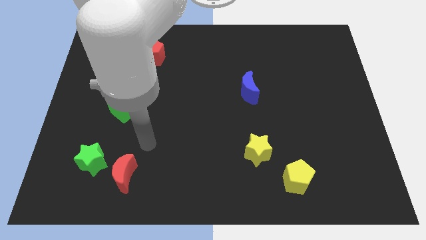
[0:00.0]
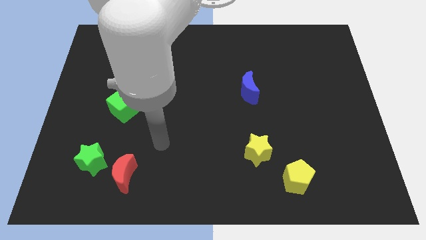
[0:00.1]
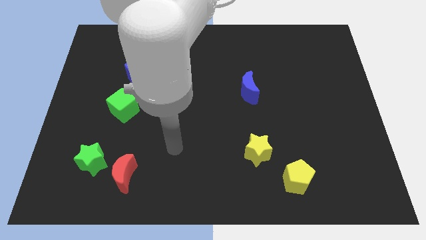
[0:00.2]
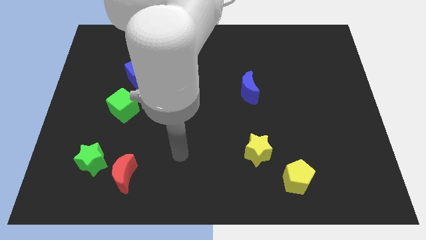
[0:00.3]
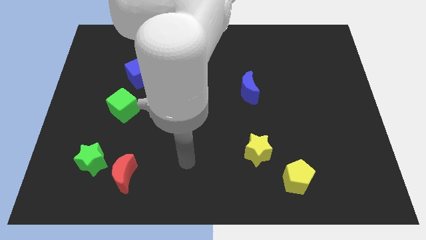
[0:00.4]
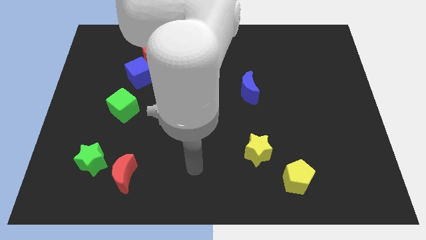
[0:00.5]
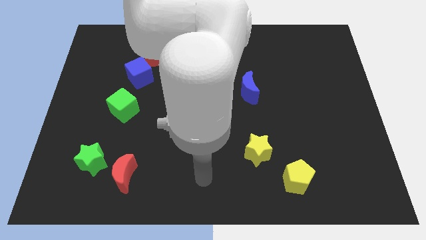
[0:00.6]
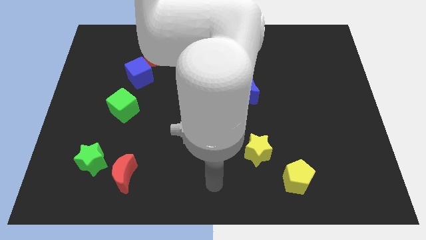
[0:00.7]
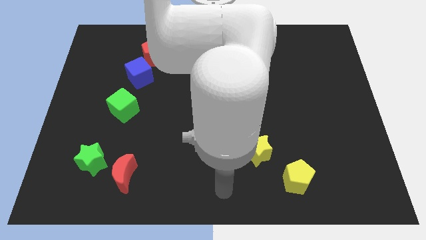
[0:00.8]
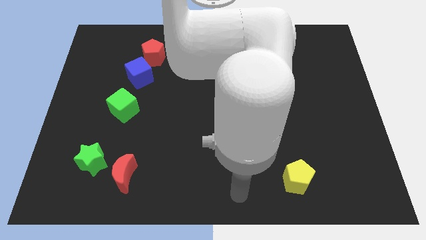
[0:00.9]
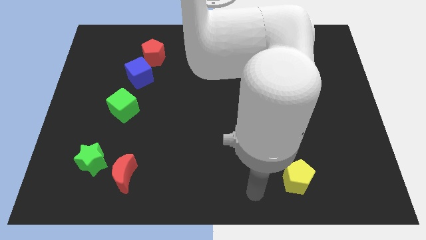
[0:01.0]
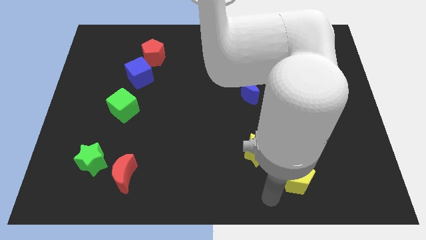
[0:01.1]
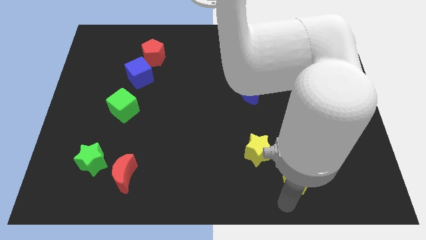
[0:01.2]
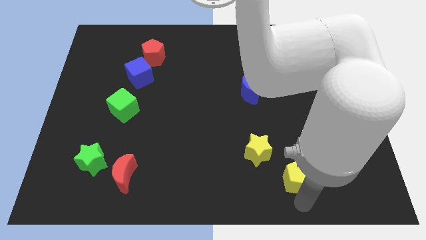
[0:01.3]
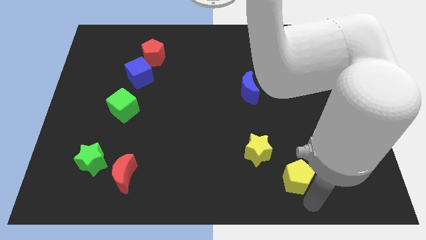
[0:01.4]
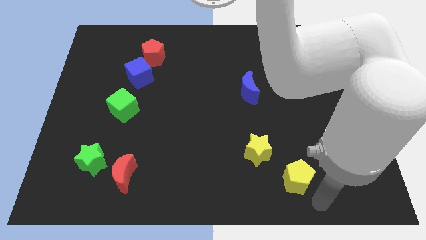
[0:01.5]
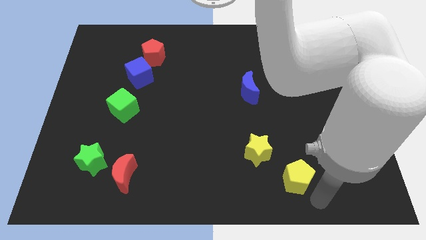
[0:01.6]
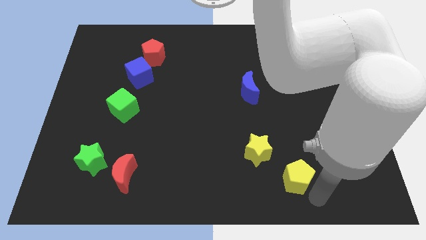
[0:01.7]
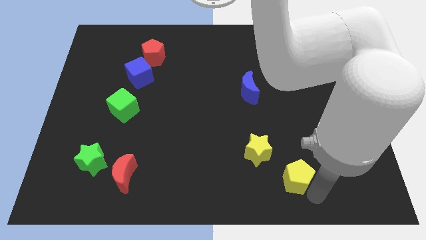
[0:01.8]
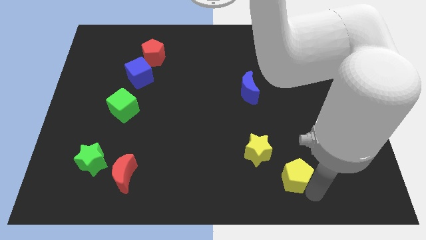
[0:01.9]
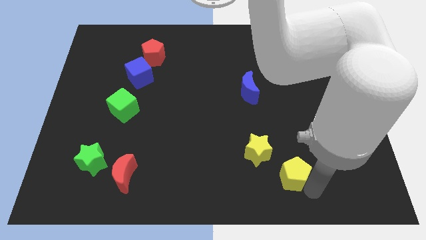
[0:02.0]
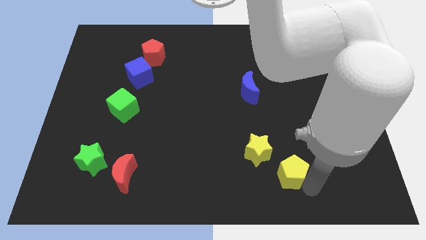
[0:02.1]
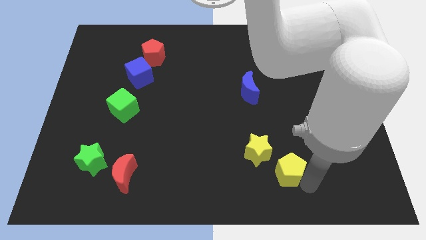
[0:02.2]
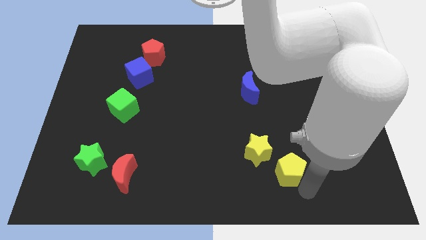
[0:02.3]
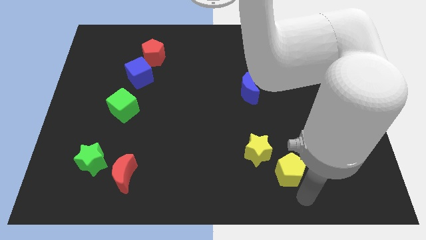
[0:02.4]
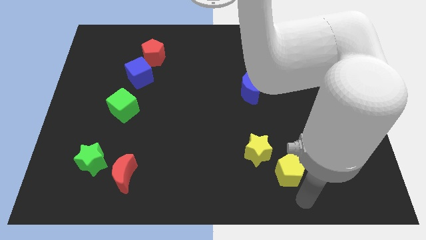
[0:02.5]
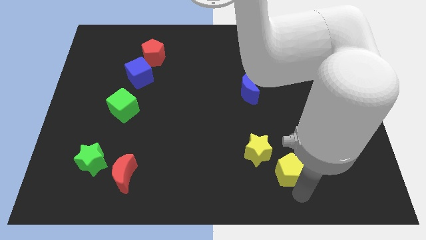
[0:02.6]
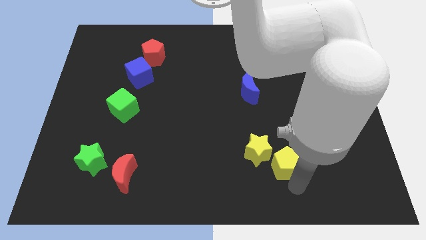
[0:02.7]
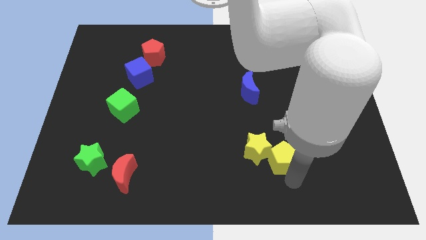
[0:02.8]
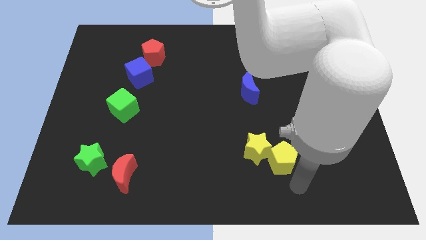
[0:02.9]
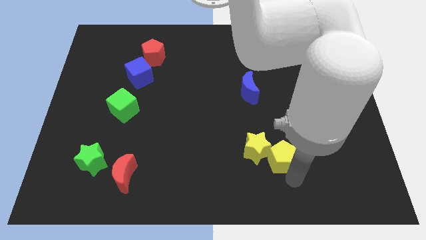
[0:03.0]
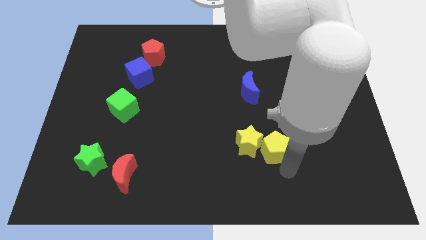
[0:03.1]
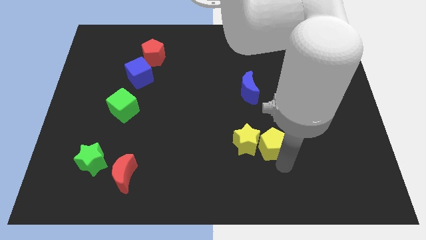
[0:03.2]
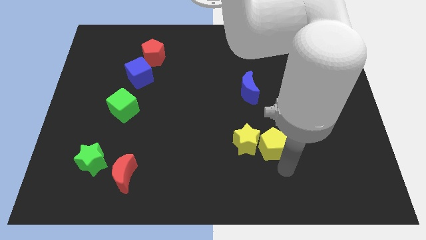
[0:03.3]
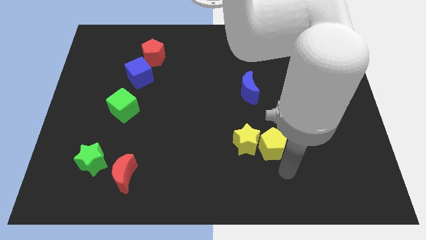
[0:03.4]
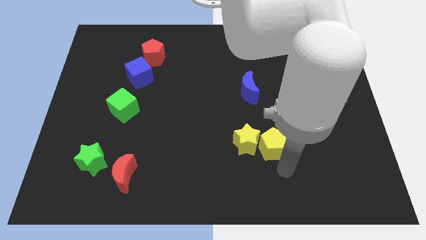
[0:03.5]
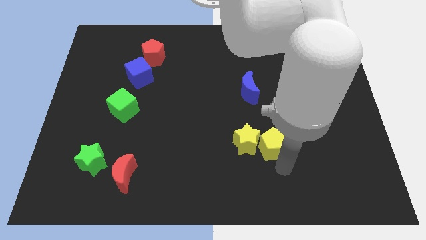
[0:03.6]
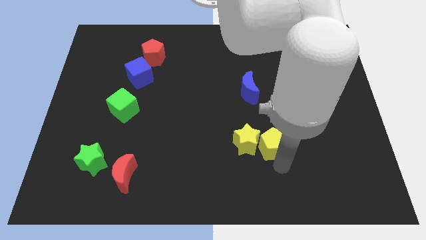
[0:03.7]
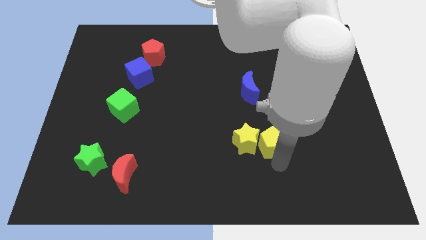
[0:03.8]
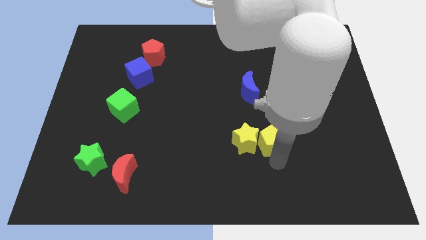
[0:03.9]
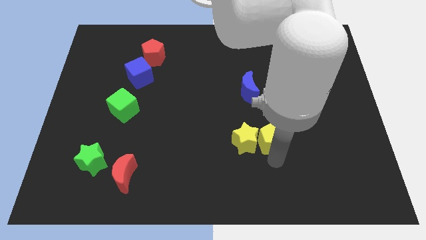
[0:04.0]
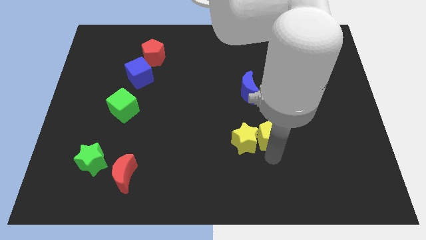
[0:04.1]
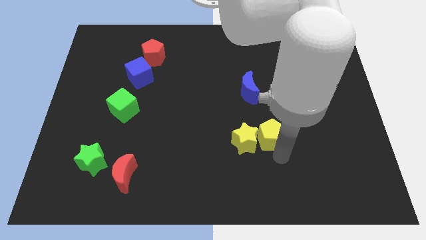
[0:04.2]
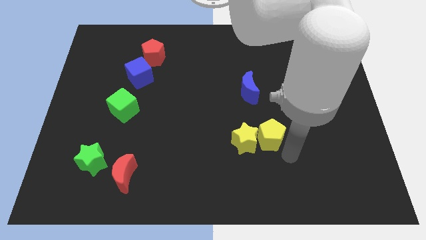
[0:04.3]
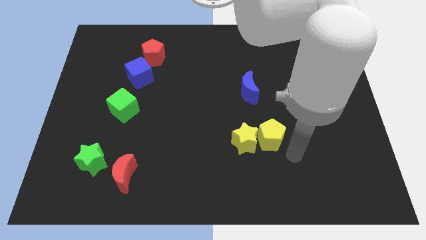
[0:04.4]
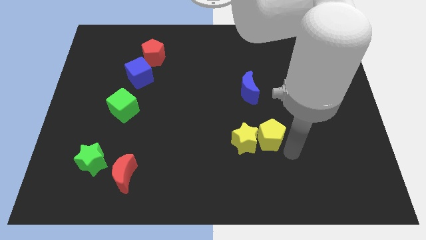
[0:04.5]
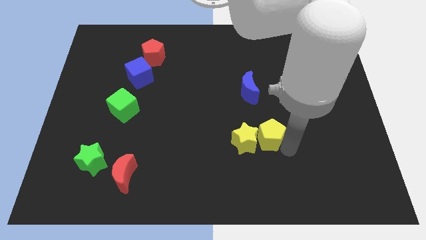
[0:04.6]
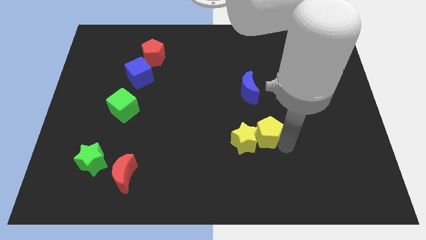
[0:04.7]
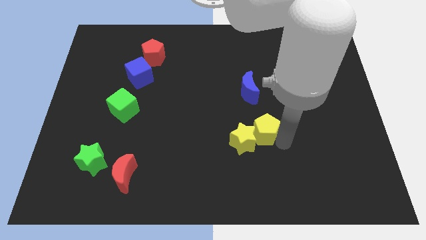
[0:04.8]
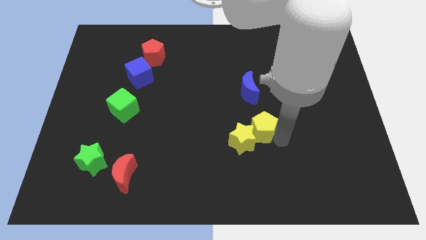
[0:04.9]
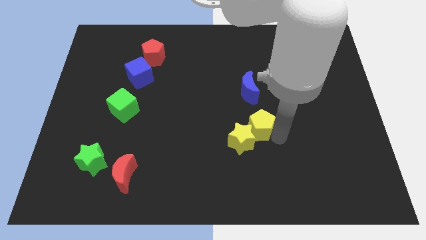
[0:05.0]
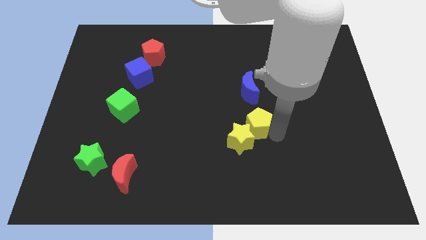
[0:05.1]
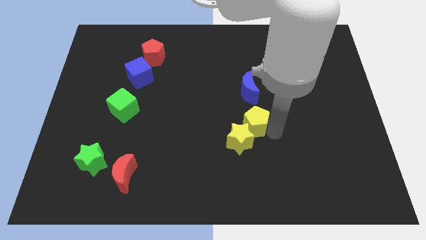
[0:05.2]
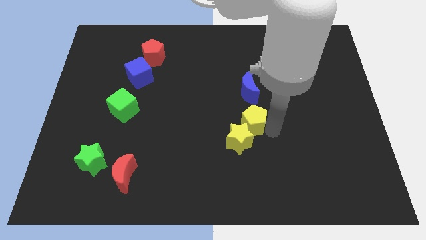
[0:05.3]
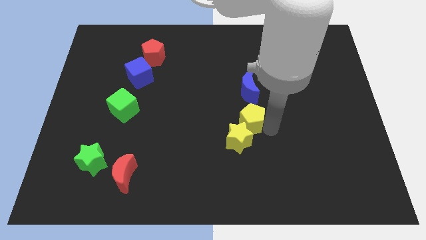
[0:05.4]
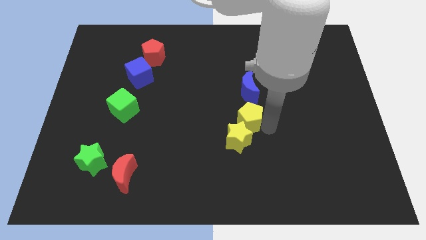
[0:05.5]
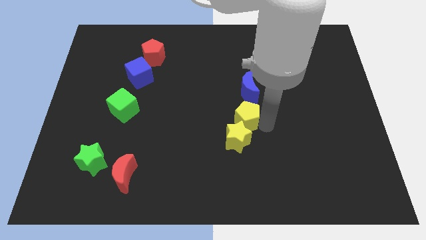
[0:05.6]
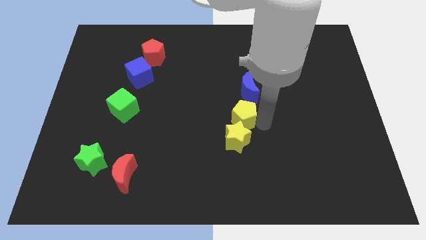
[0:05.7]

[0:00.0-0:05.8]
slide the yellow pentagon diagonally down and to the left of the blue moon

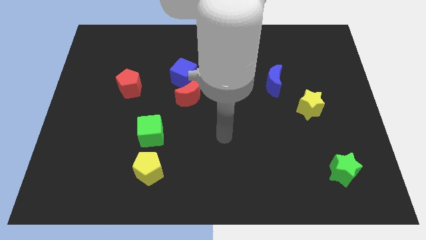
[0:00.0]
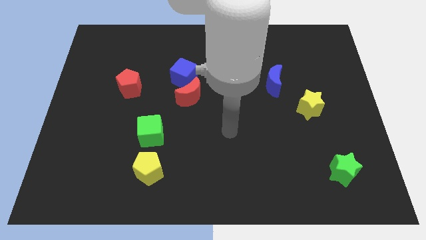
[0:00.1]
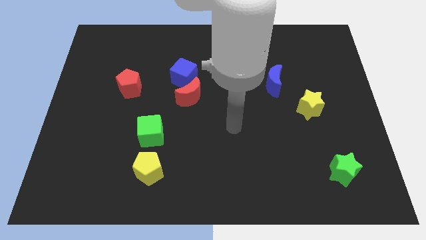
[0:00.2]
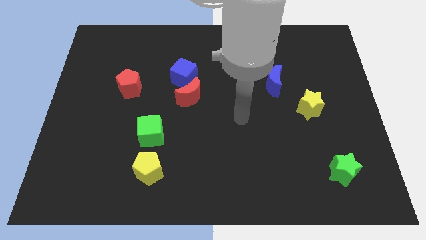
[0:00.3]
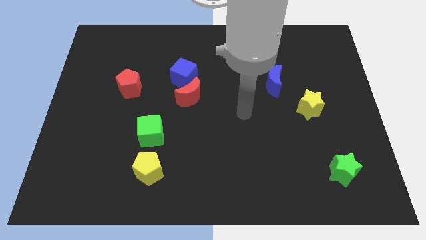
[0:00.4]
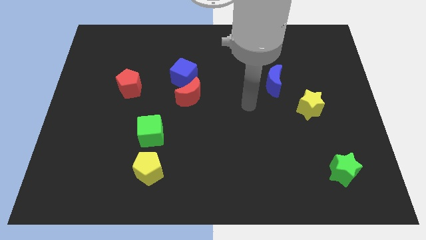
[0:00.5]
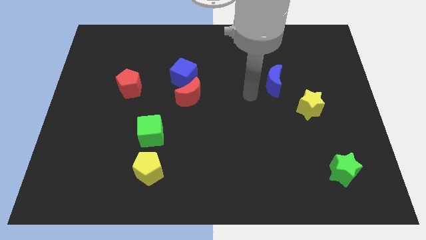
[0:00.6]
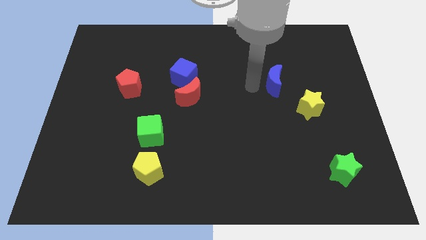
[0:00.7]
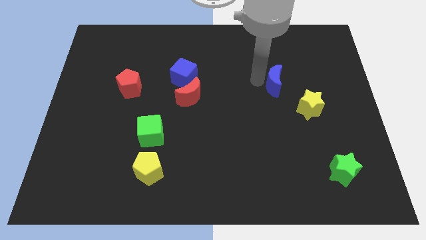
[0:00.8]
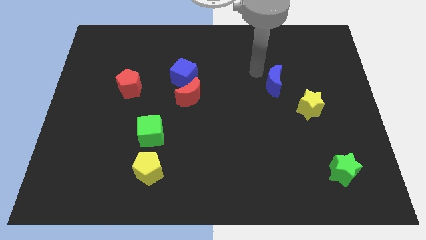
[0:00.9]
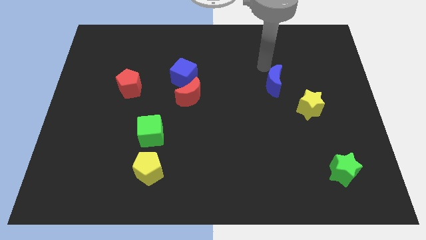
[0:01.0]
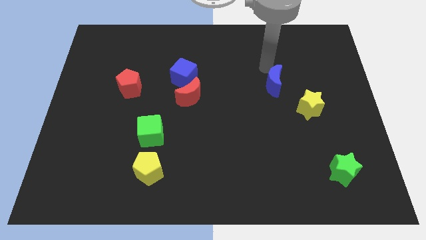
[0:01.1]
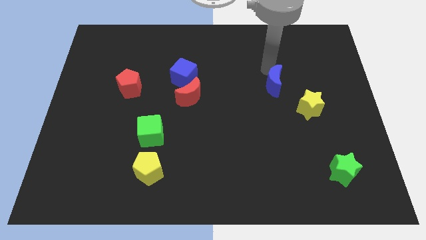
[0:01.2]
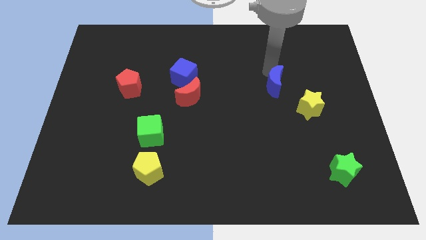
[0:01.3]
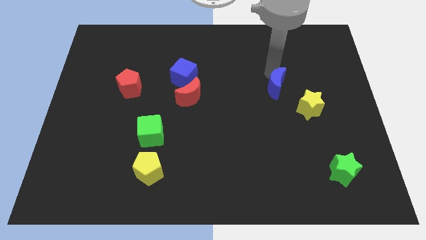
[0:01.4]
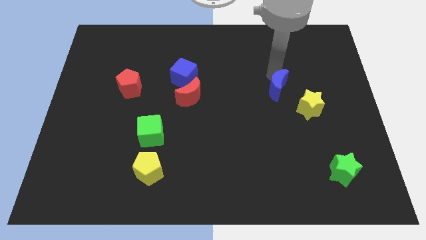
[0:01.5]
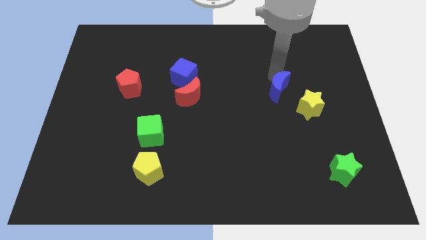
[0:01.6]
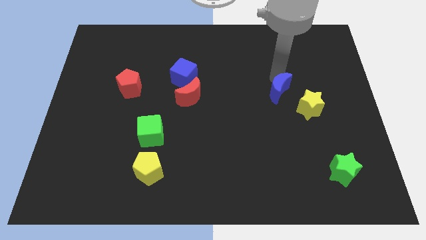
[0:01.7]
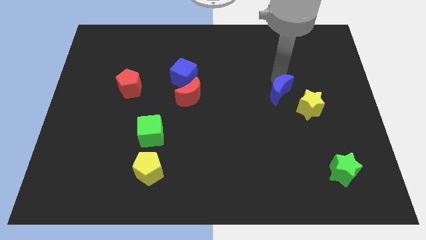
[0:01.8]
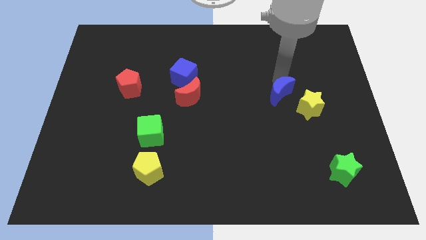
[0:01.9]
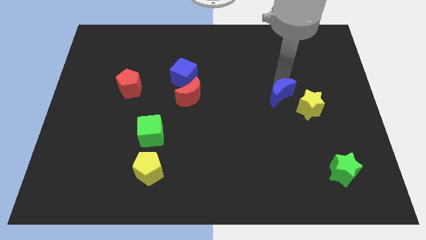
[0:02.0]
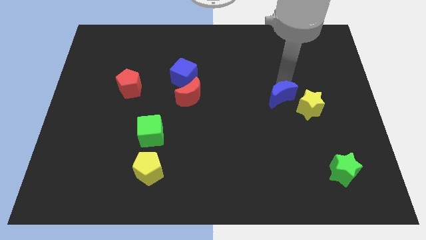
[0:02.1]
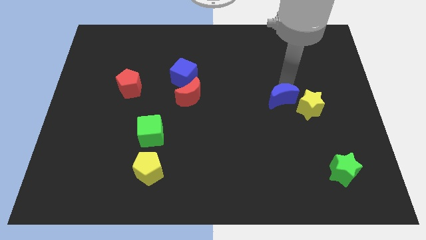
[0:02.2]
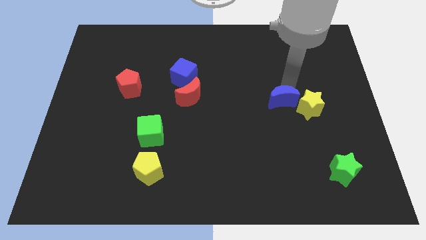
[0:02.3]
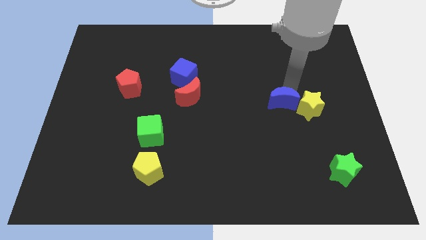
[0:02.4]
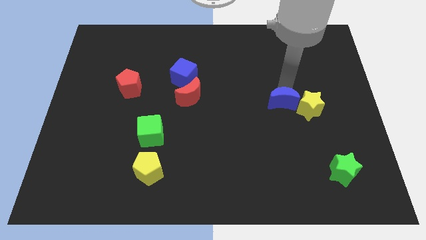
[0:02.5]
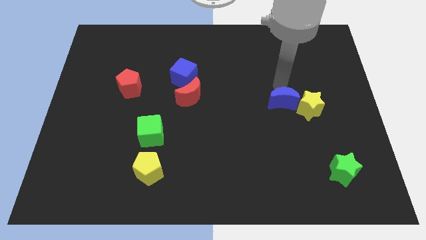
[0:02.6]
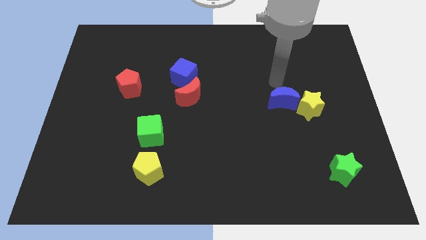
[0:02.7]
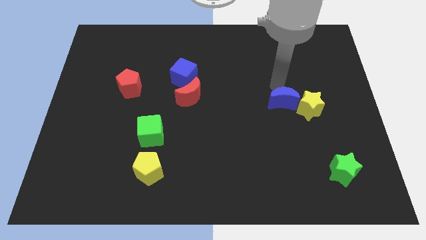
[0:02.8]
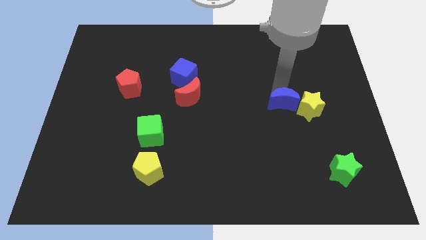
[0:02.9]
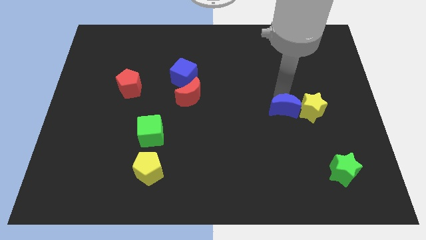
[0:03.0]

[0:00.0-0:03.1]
push the blue moon to the bottom left of the yellow star
